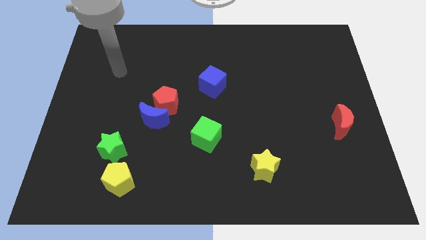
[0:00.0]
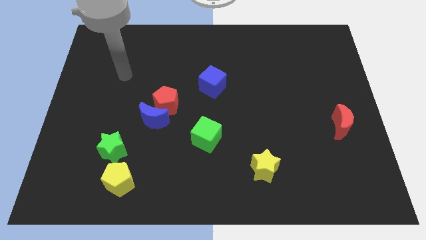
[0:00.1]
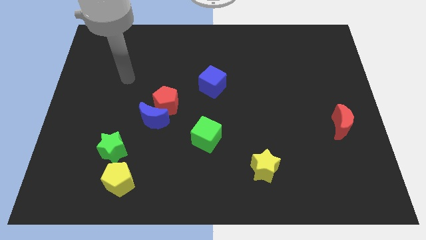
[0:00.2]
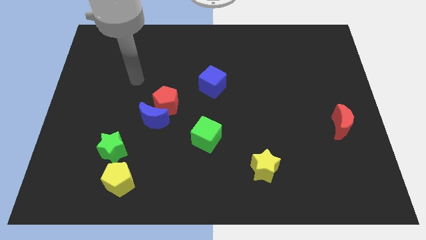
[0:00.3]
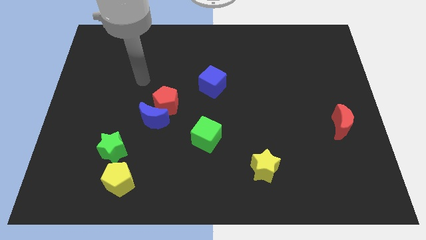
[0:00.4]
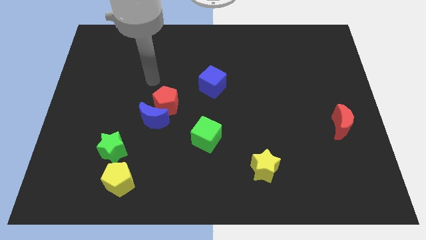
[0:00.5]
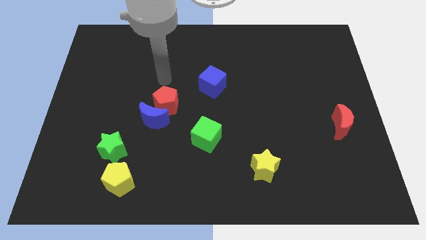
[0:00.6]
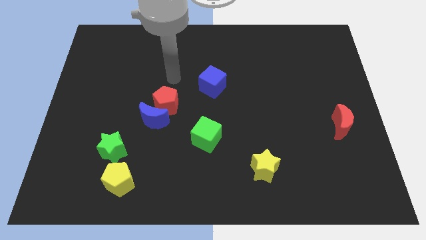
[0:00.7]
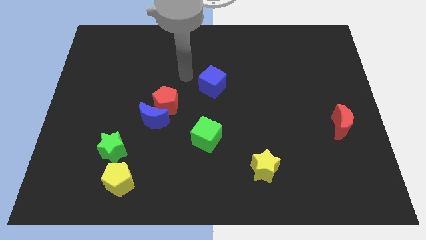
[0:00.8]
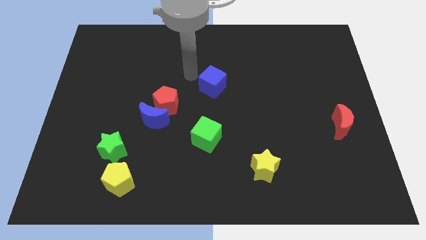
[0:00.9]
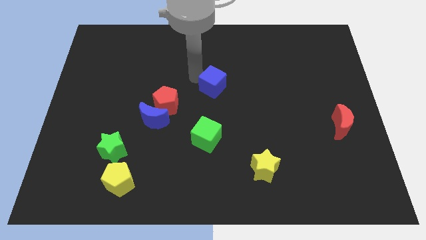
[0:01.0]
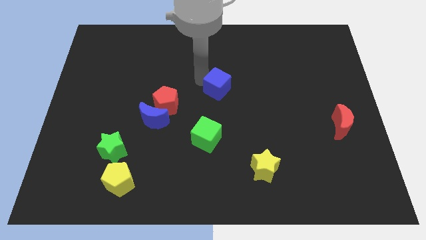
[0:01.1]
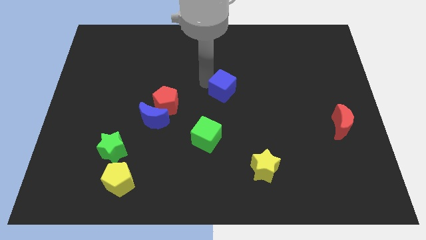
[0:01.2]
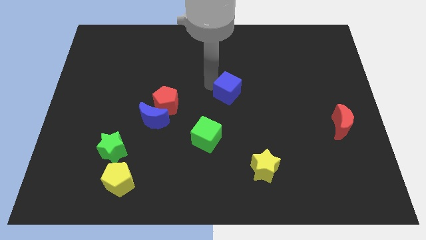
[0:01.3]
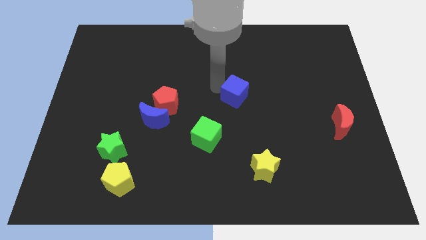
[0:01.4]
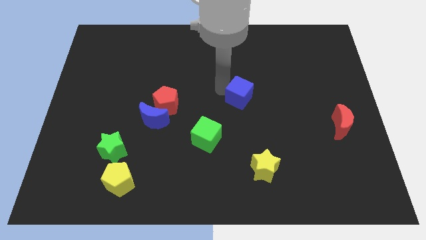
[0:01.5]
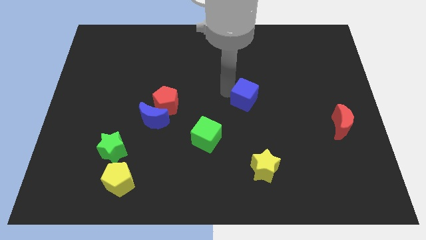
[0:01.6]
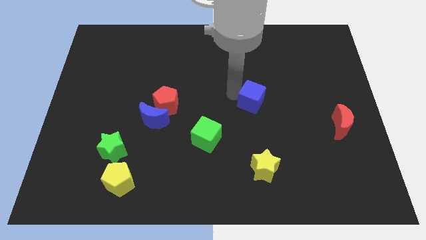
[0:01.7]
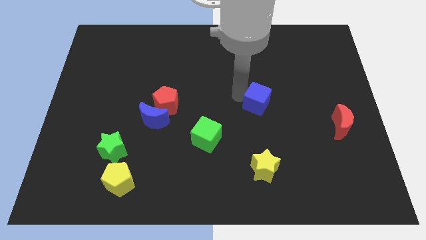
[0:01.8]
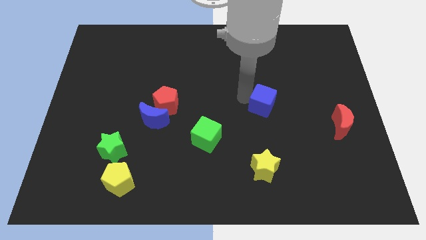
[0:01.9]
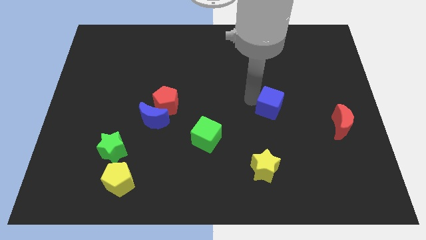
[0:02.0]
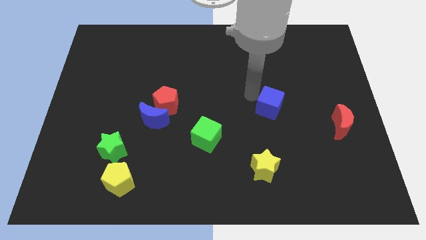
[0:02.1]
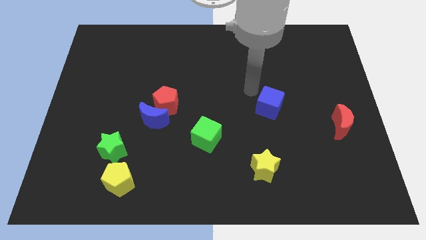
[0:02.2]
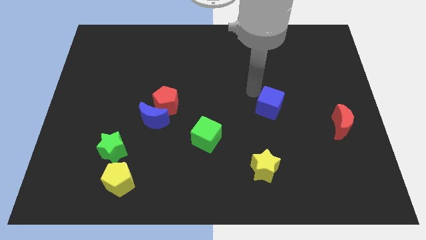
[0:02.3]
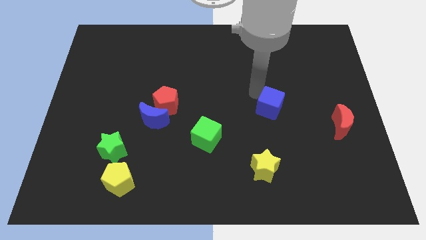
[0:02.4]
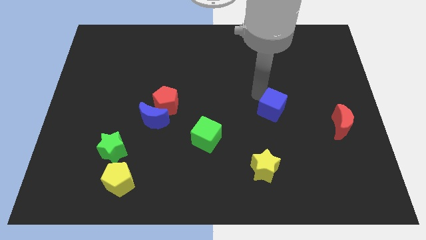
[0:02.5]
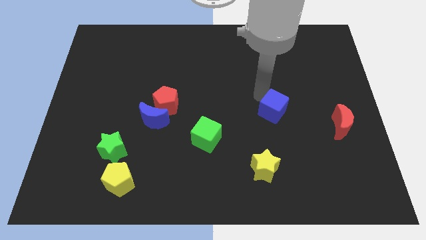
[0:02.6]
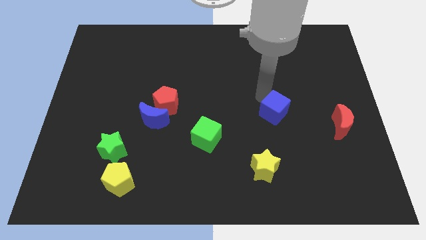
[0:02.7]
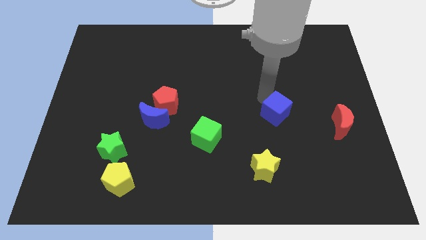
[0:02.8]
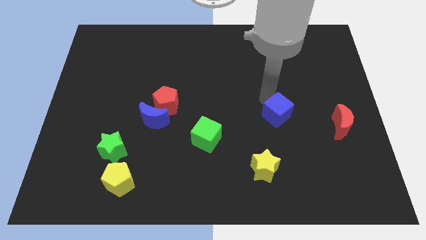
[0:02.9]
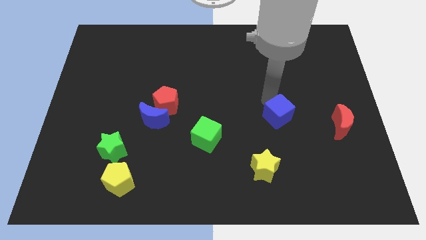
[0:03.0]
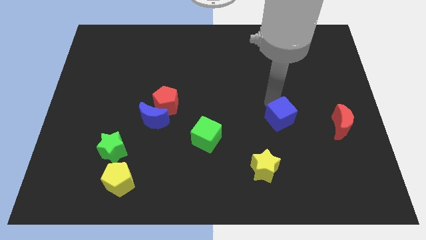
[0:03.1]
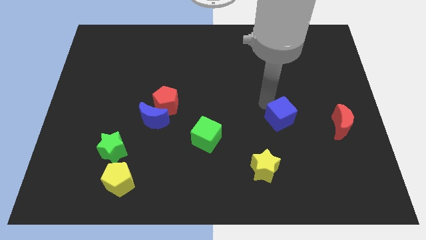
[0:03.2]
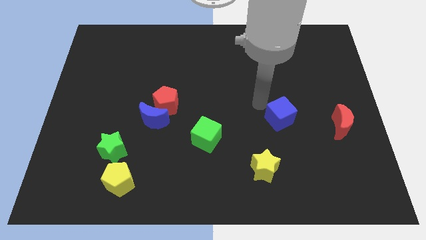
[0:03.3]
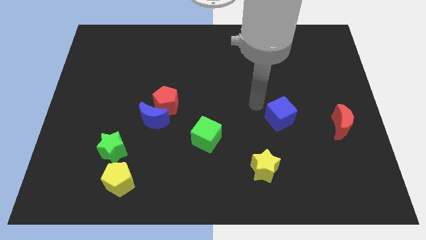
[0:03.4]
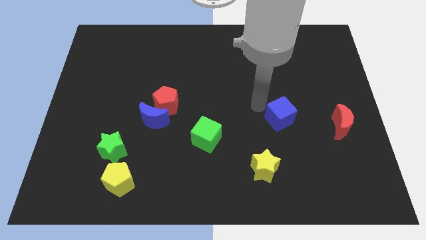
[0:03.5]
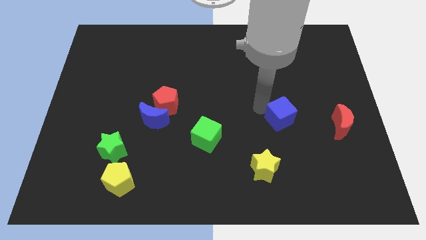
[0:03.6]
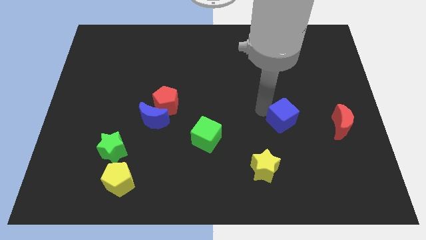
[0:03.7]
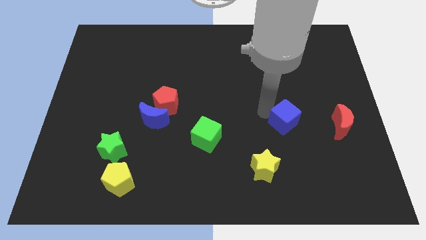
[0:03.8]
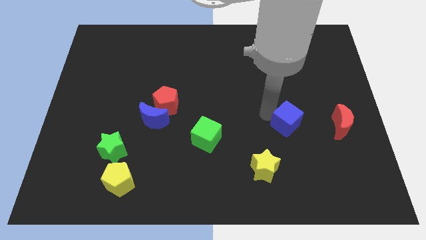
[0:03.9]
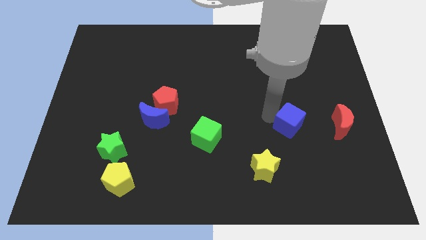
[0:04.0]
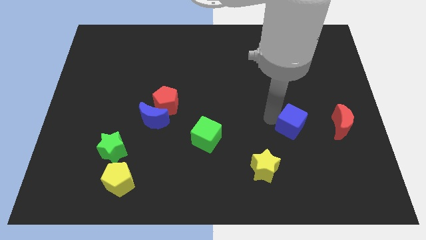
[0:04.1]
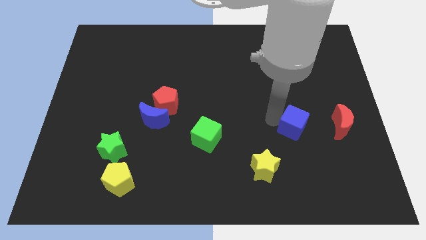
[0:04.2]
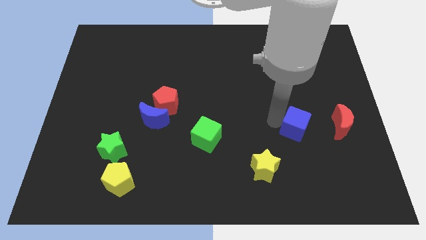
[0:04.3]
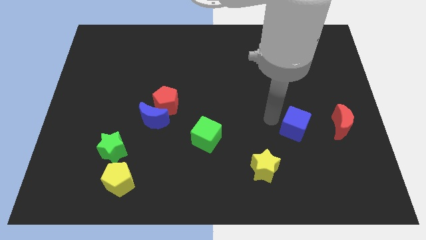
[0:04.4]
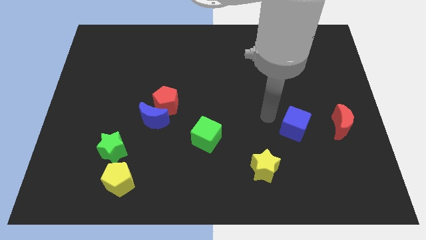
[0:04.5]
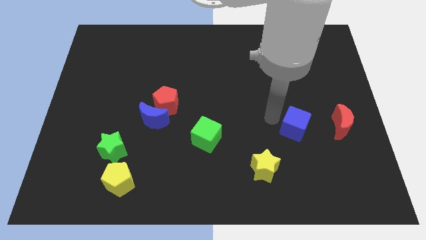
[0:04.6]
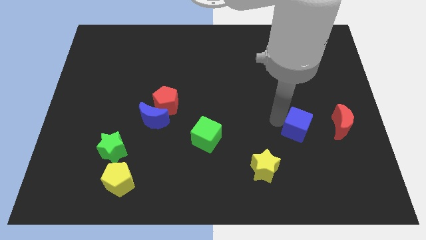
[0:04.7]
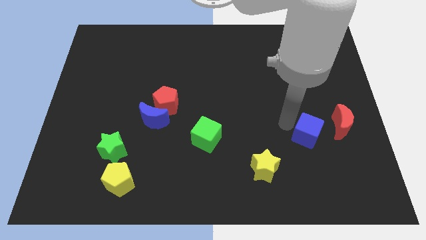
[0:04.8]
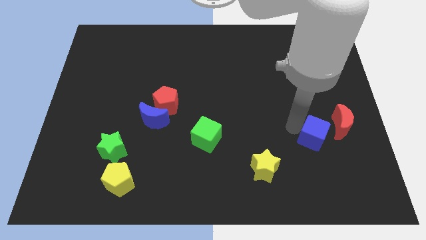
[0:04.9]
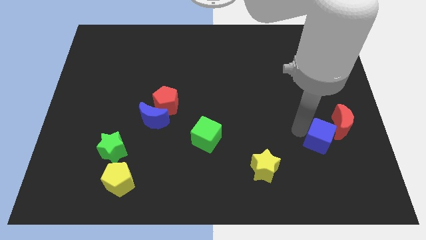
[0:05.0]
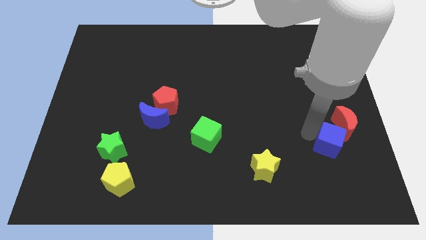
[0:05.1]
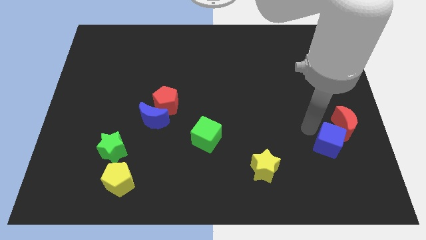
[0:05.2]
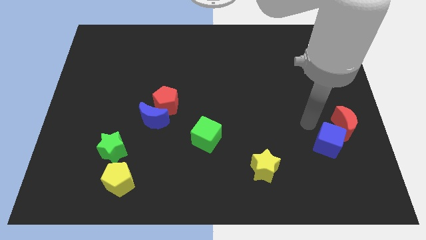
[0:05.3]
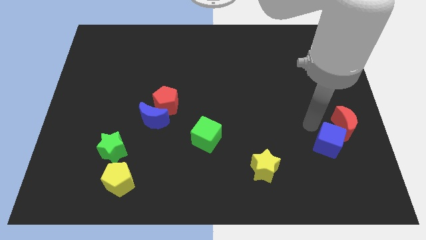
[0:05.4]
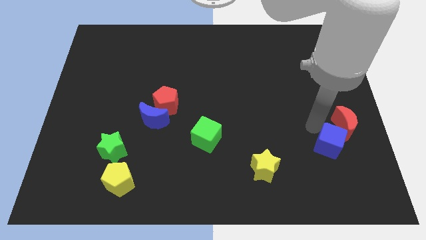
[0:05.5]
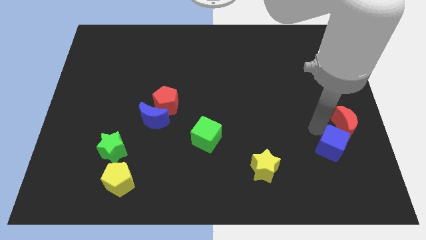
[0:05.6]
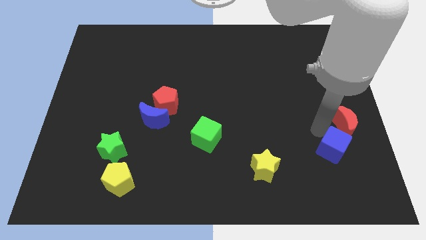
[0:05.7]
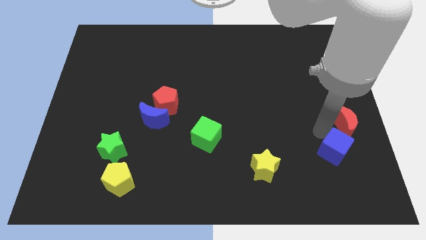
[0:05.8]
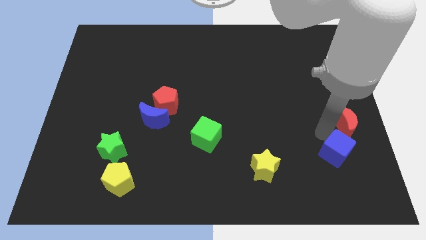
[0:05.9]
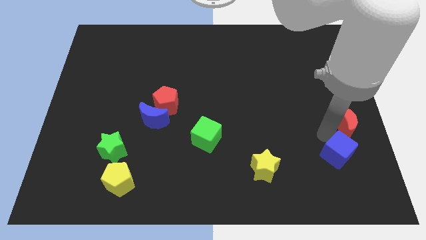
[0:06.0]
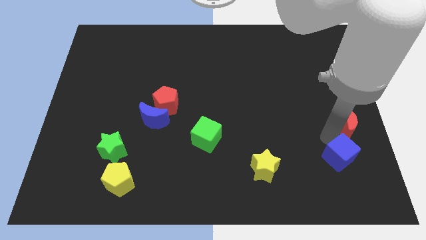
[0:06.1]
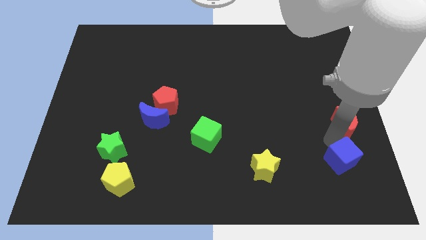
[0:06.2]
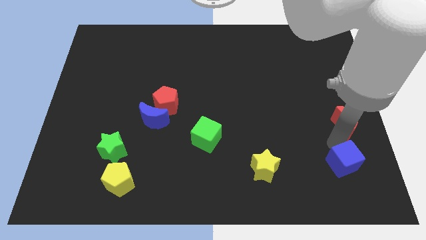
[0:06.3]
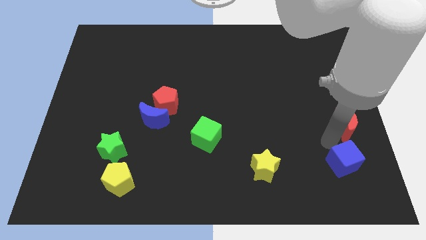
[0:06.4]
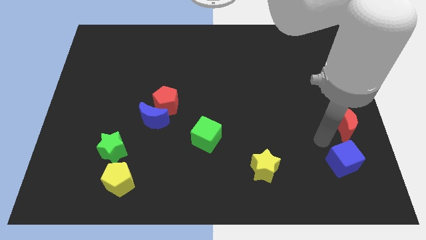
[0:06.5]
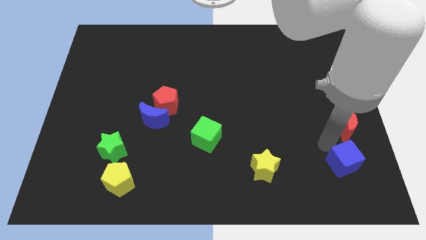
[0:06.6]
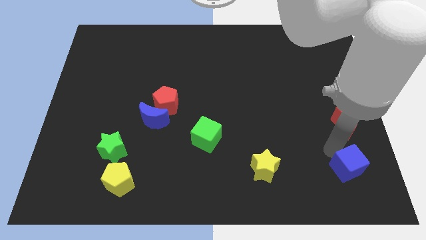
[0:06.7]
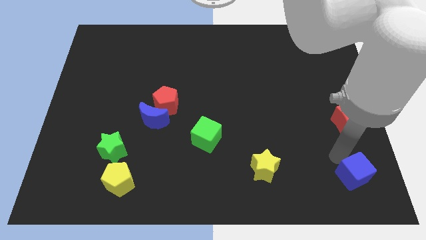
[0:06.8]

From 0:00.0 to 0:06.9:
put the blue cube to the bottom right
